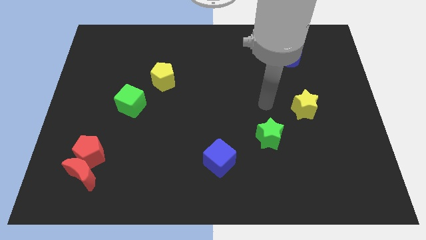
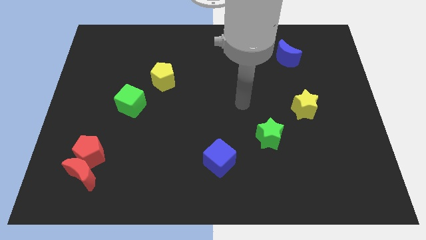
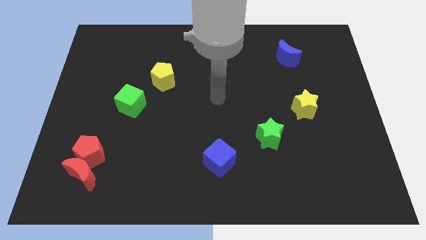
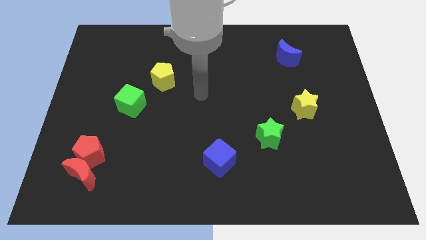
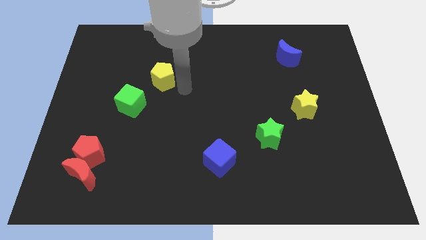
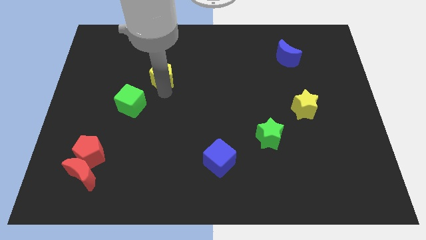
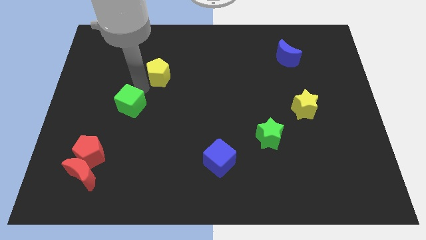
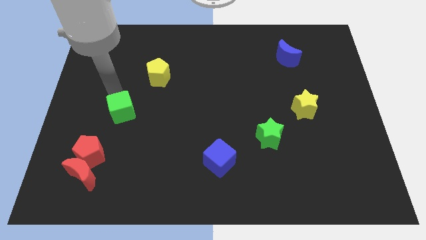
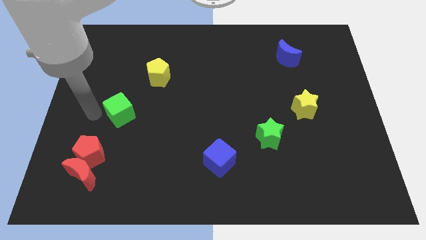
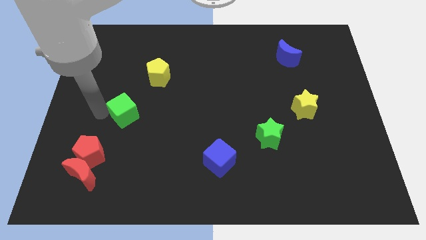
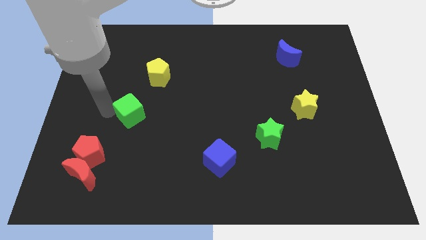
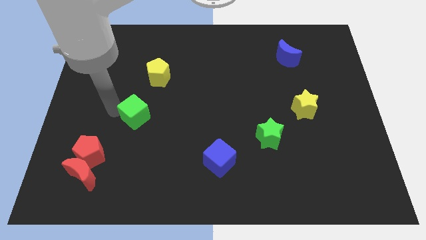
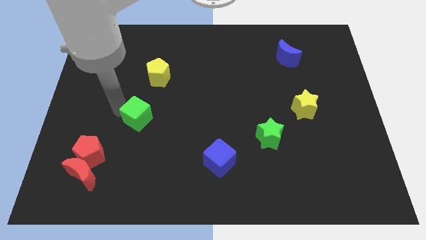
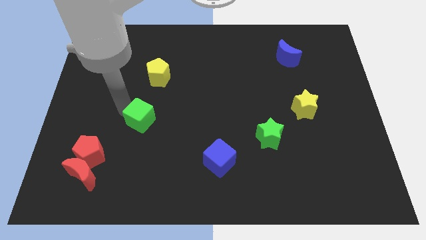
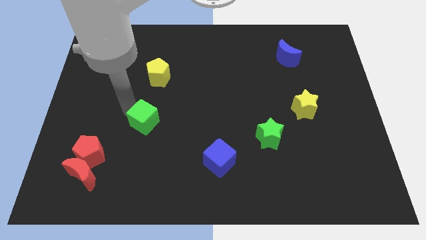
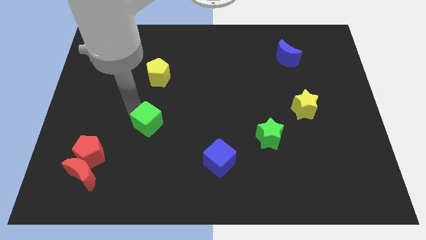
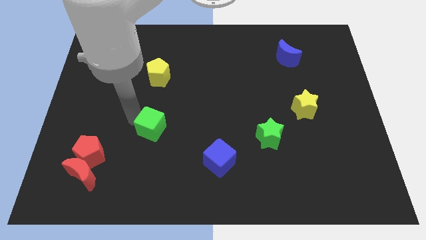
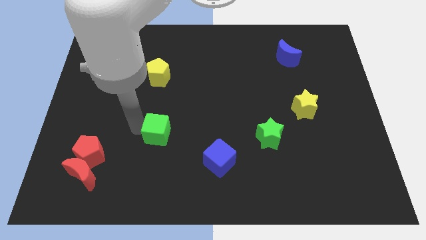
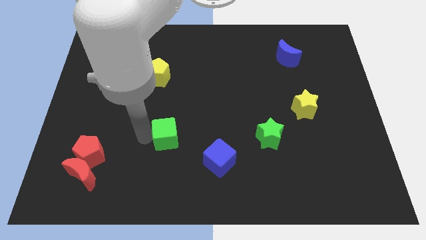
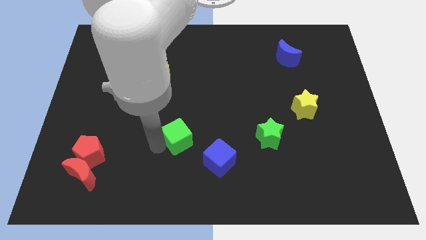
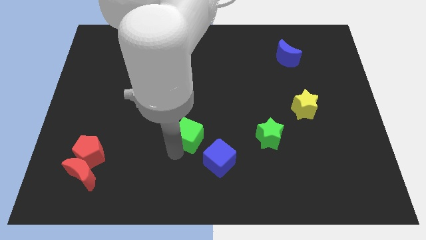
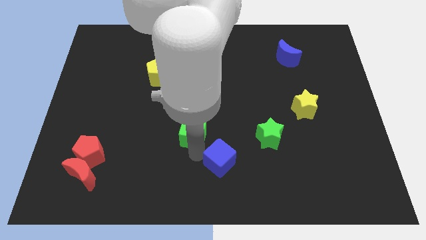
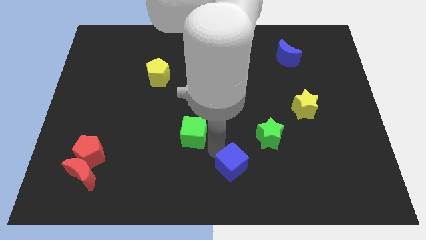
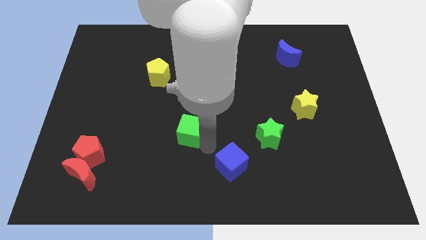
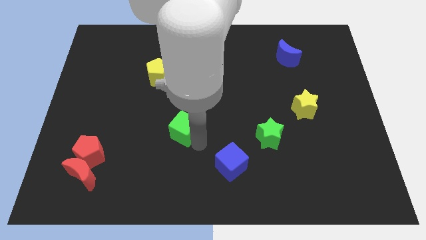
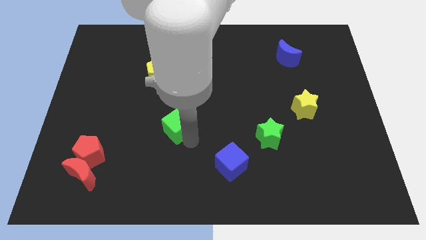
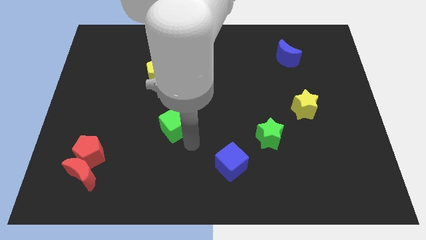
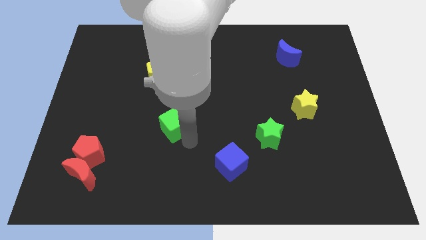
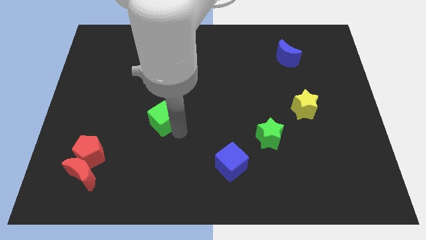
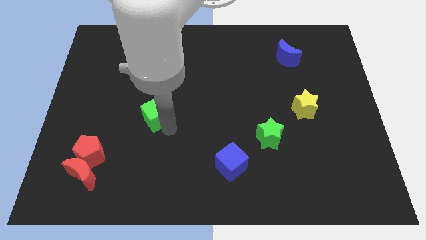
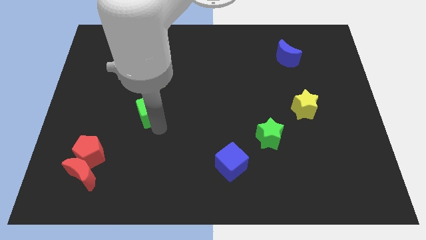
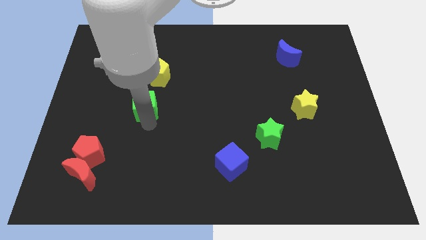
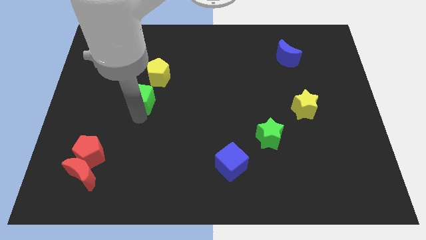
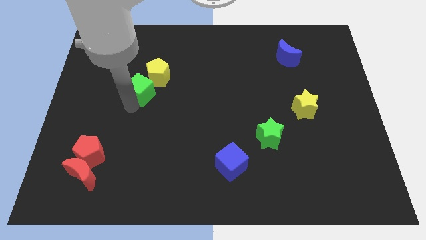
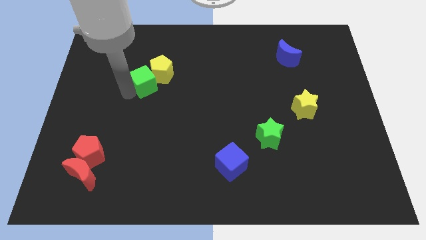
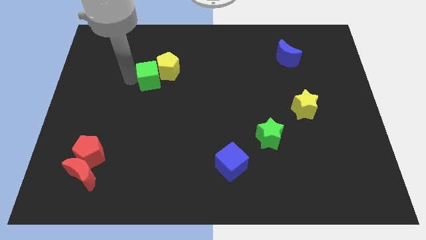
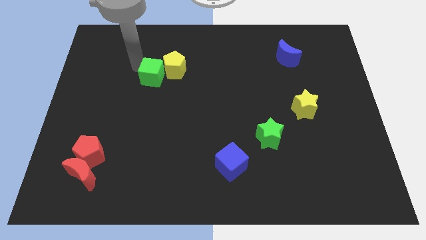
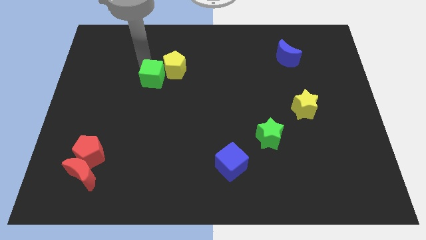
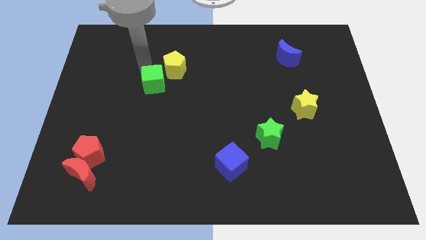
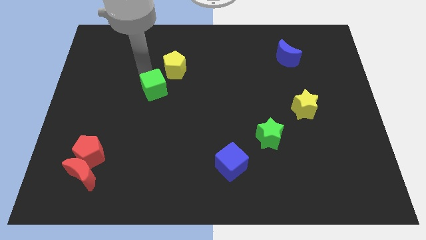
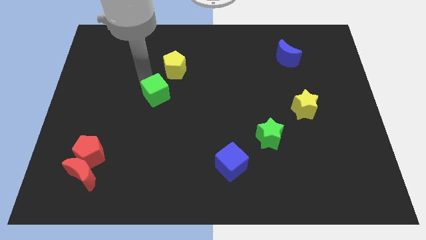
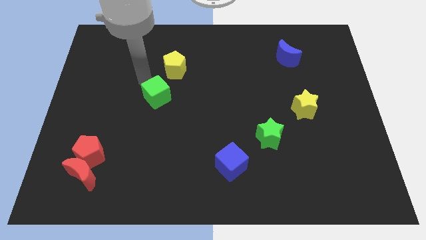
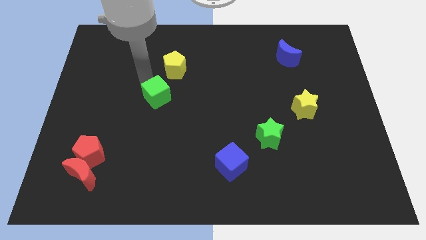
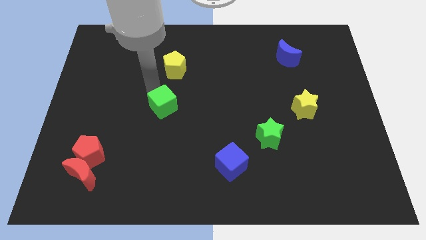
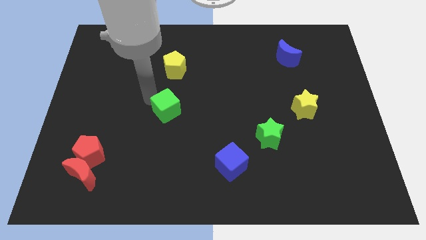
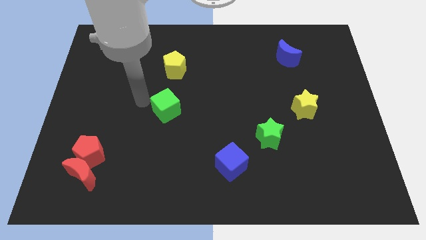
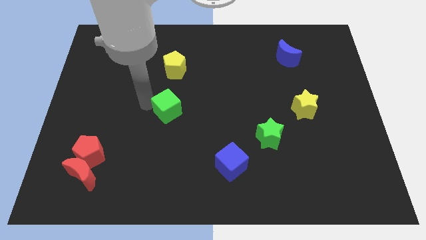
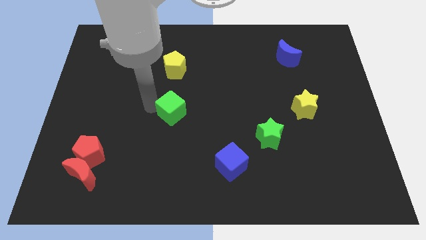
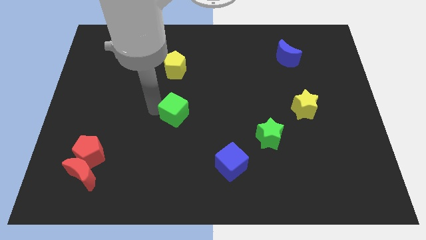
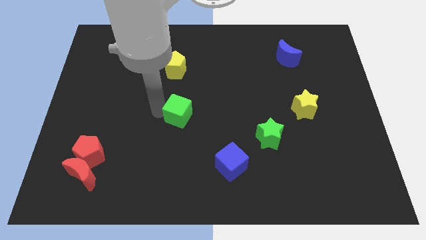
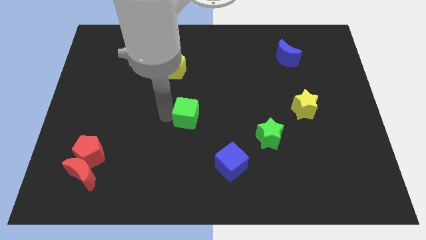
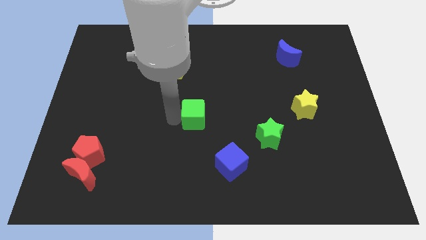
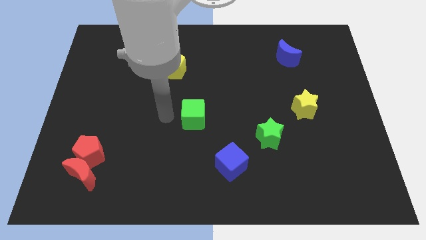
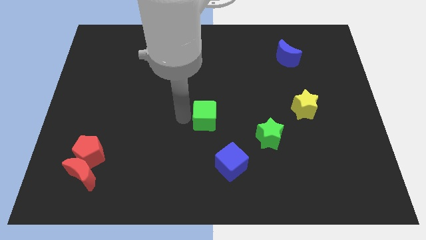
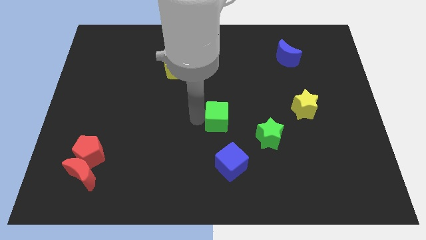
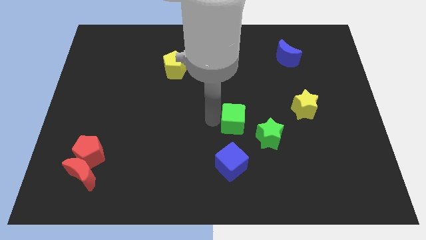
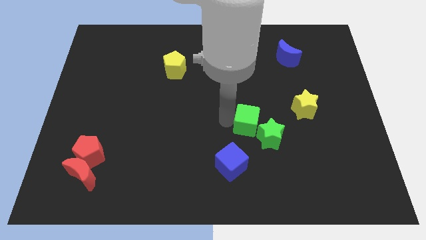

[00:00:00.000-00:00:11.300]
move the green cube towards the green star

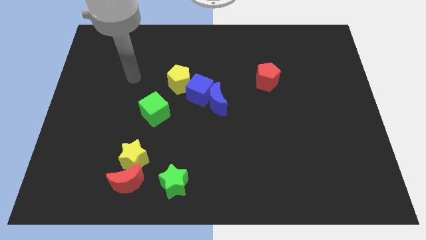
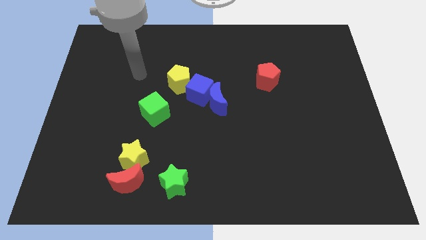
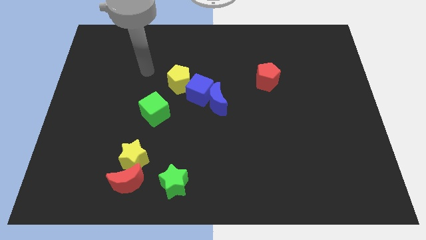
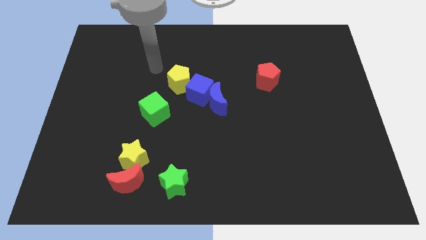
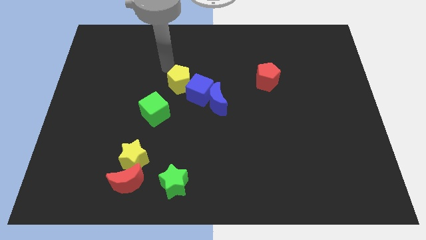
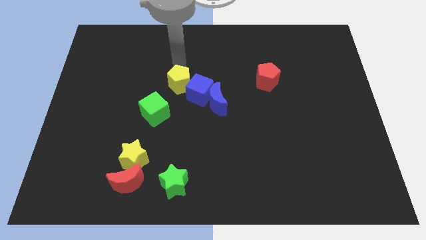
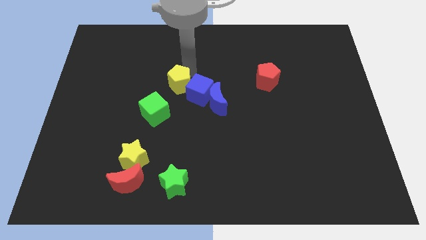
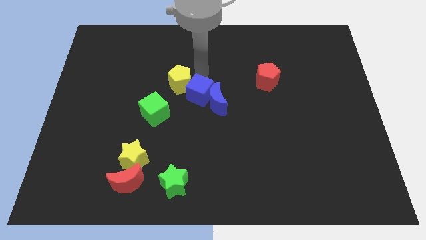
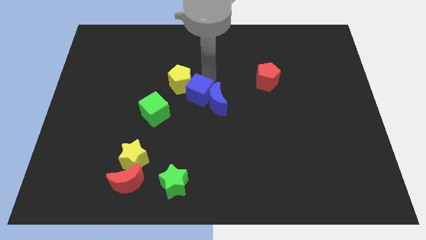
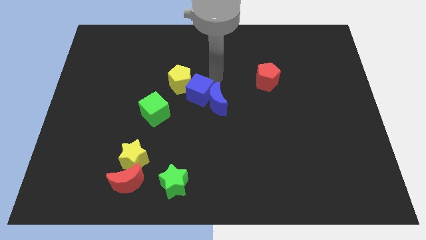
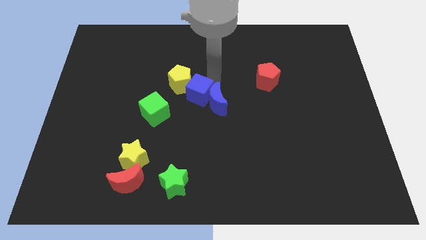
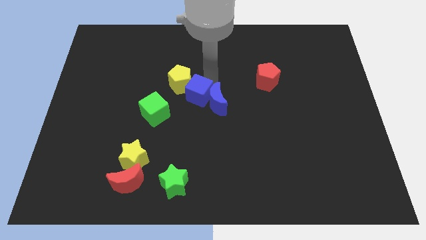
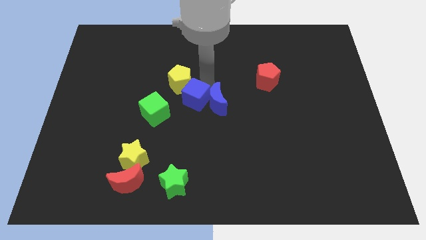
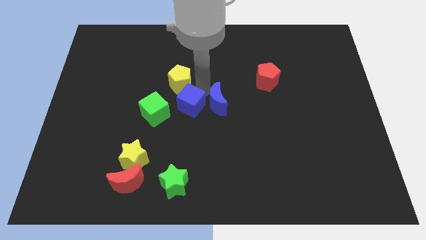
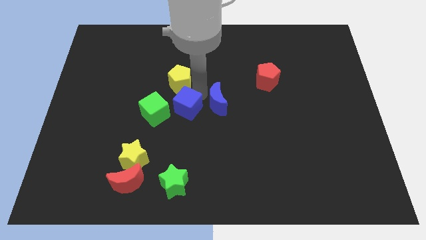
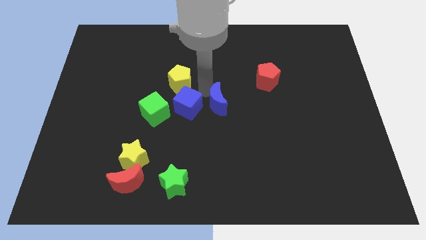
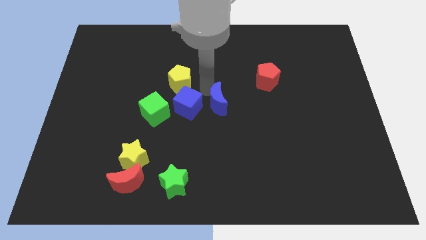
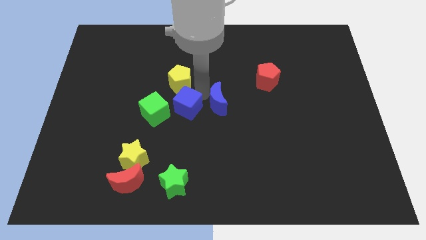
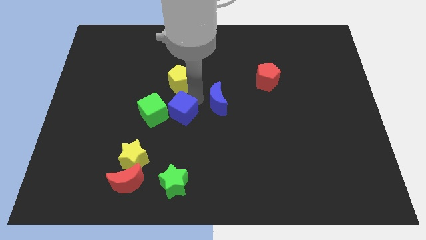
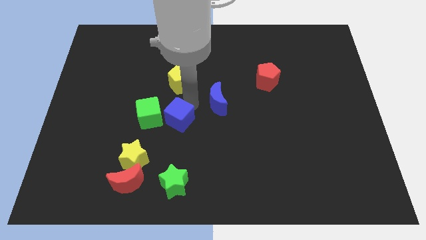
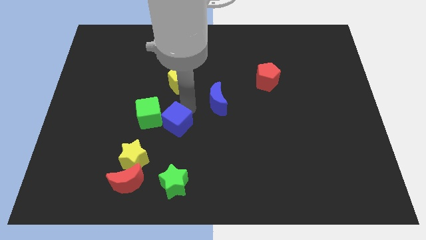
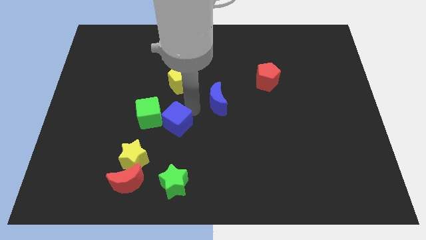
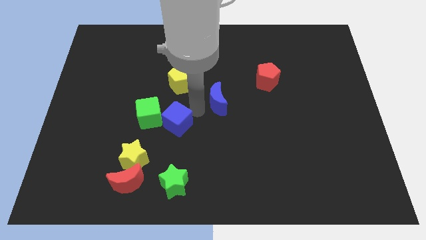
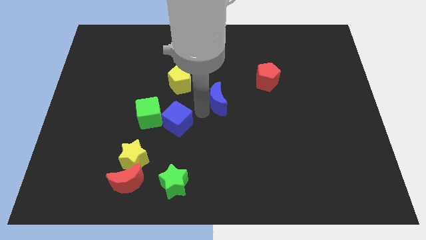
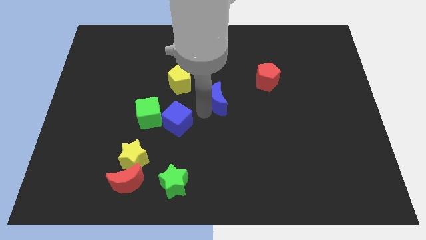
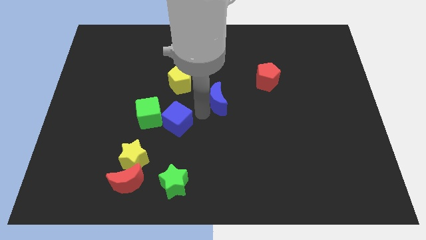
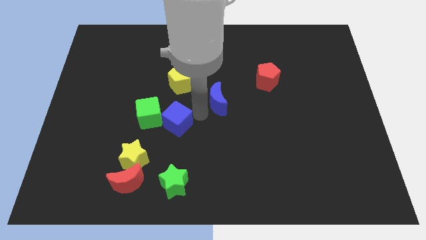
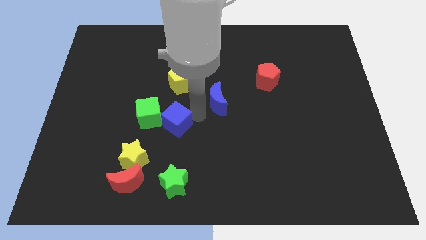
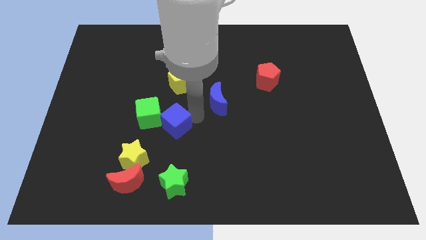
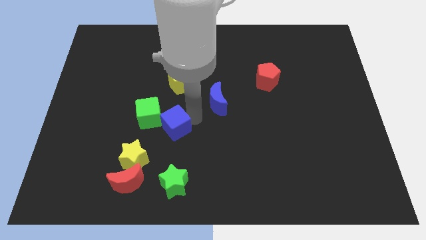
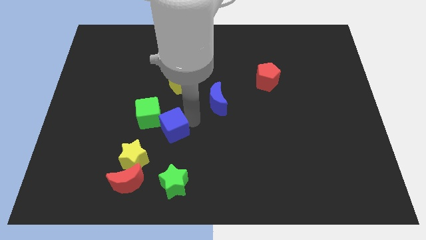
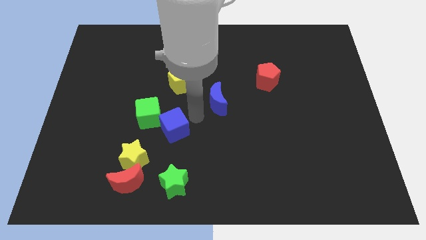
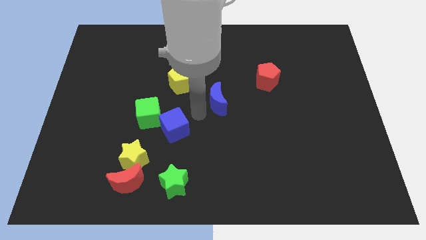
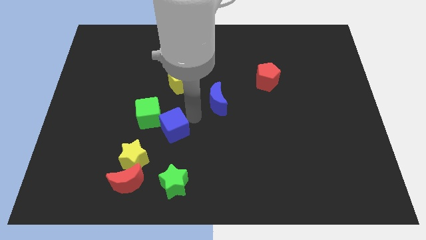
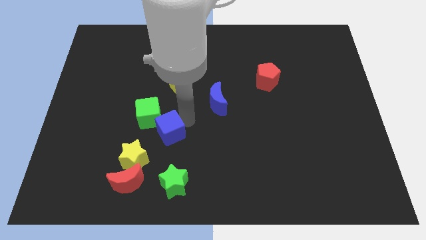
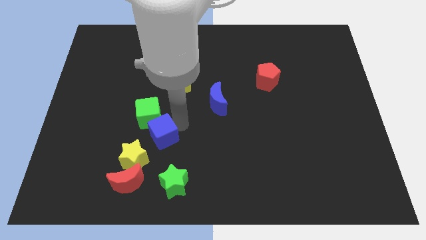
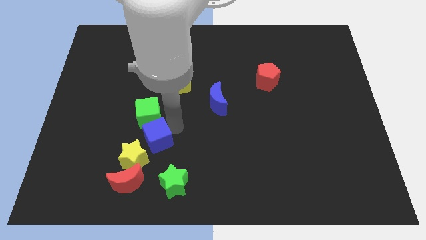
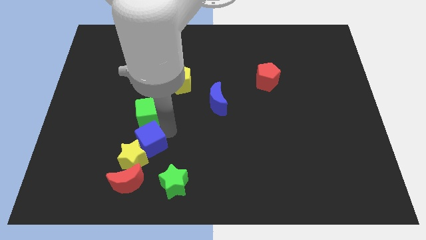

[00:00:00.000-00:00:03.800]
push the blue cube next to the yellow star
